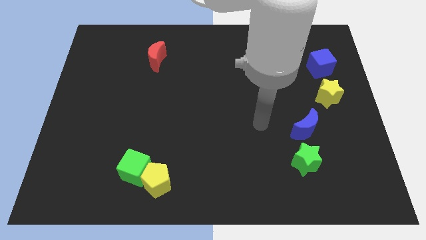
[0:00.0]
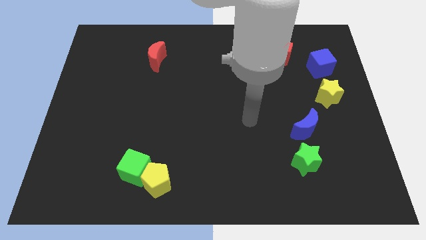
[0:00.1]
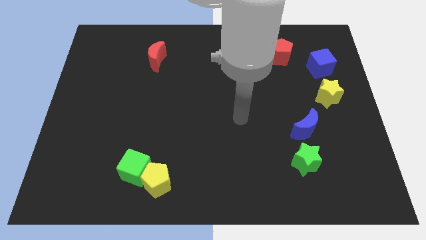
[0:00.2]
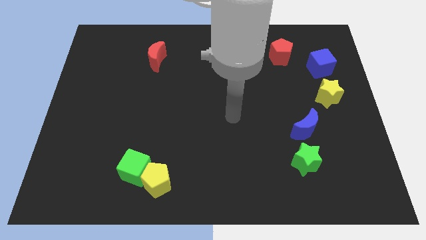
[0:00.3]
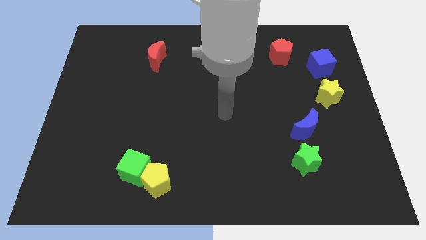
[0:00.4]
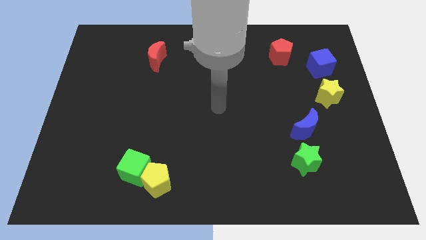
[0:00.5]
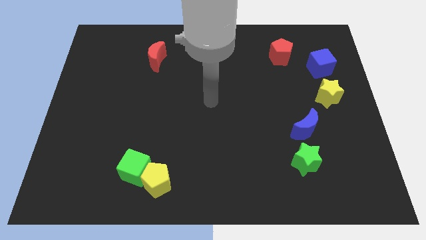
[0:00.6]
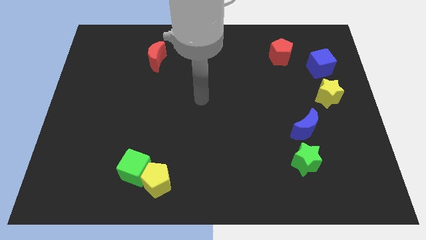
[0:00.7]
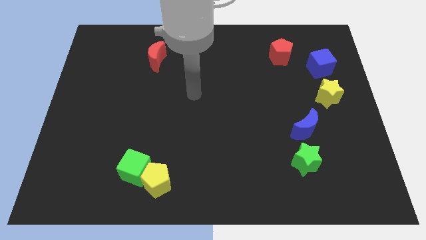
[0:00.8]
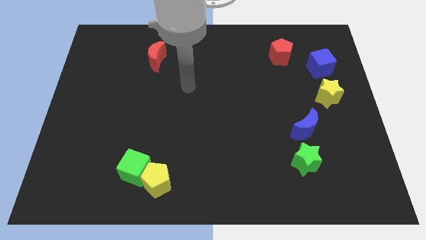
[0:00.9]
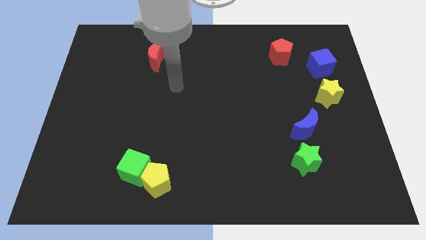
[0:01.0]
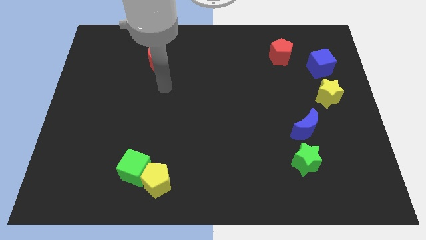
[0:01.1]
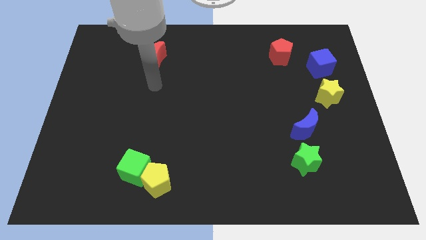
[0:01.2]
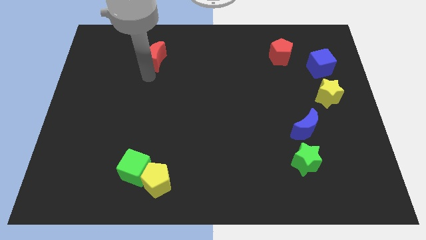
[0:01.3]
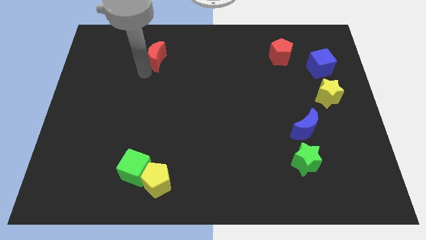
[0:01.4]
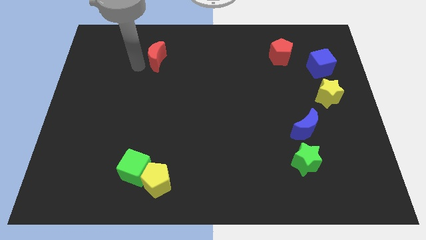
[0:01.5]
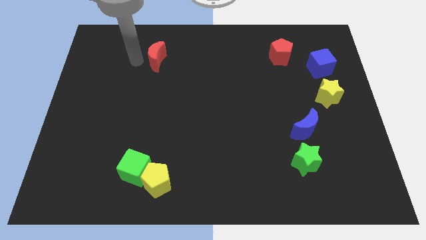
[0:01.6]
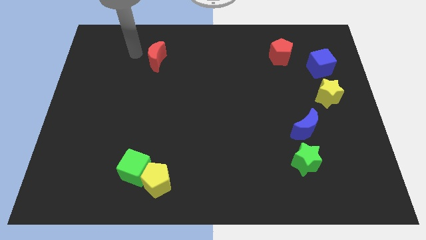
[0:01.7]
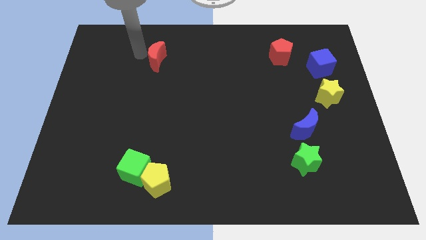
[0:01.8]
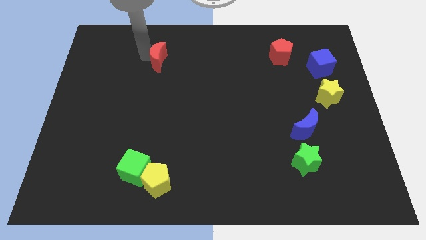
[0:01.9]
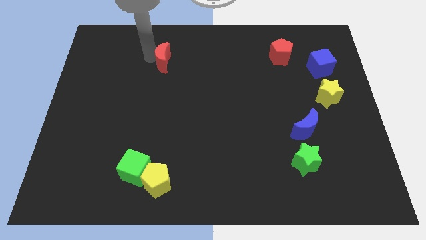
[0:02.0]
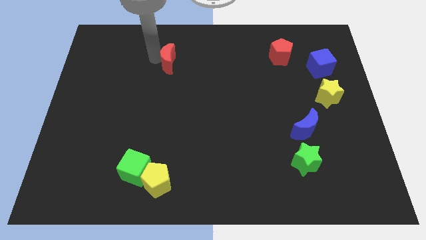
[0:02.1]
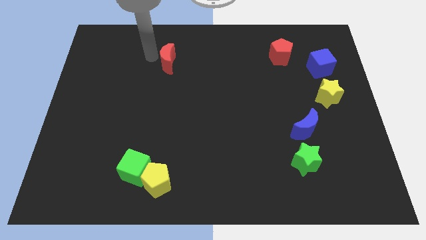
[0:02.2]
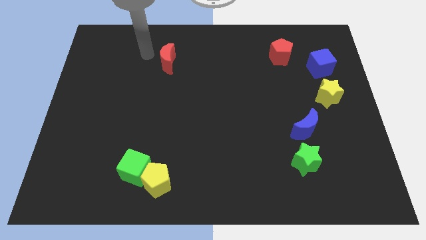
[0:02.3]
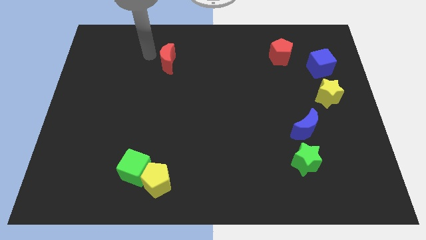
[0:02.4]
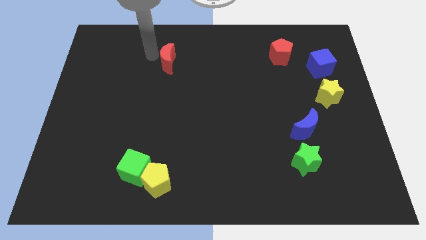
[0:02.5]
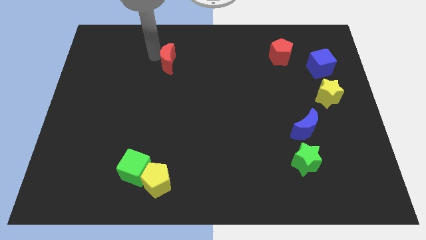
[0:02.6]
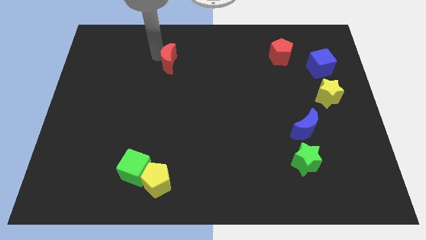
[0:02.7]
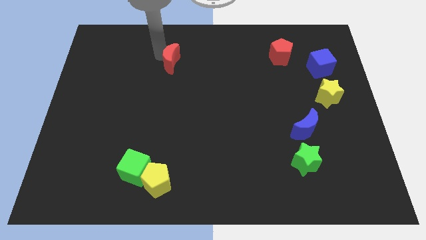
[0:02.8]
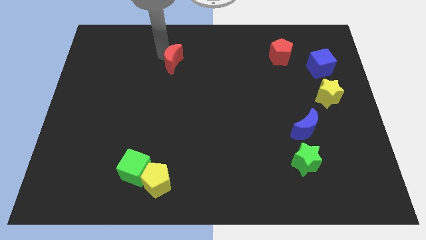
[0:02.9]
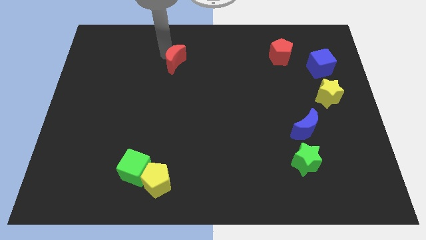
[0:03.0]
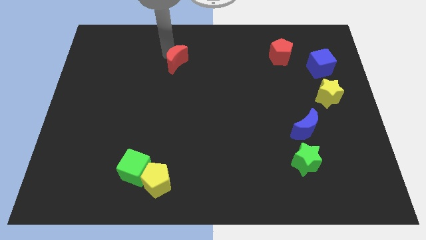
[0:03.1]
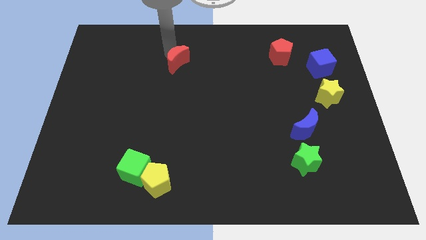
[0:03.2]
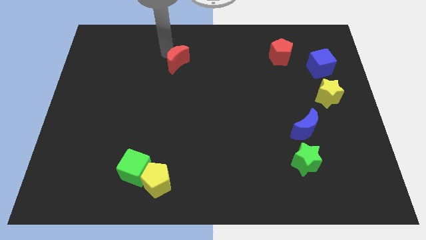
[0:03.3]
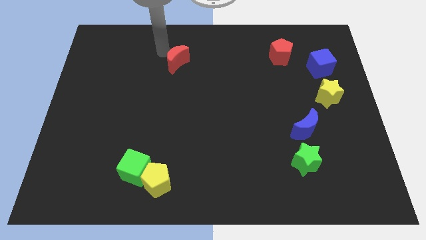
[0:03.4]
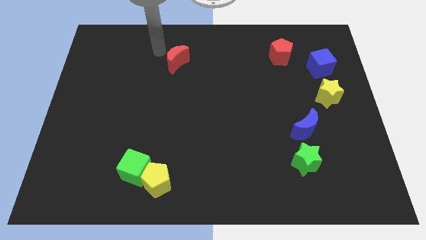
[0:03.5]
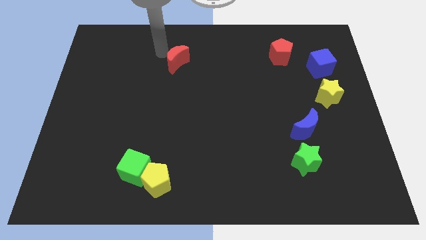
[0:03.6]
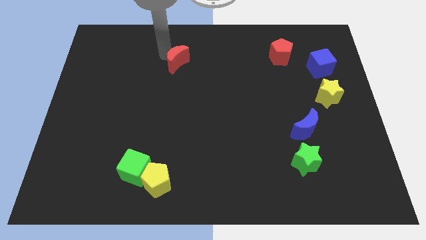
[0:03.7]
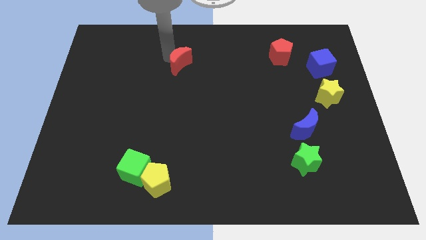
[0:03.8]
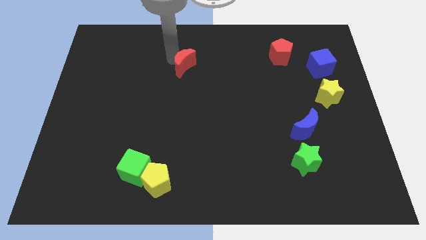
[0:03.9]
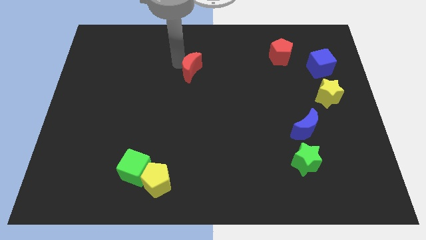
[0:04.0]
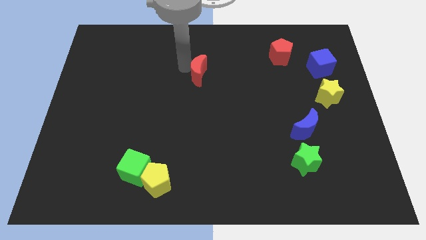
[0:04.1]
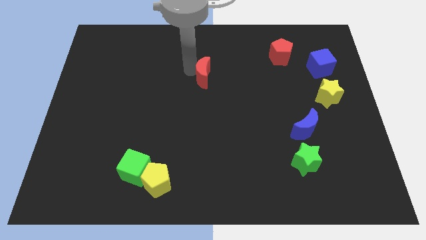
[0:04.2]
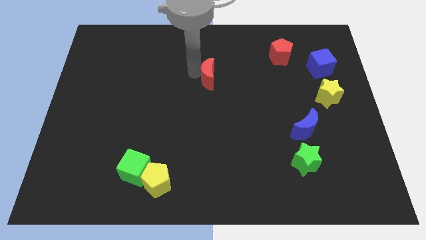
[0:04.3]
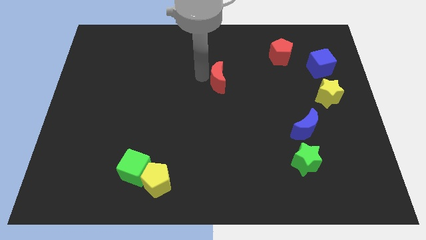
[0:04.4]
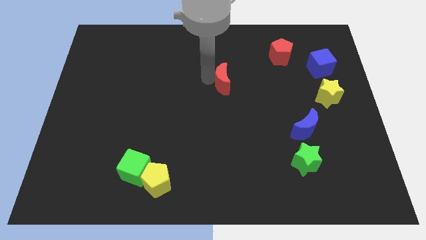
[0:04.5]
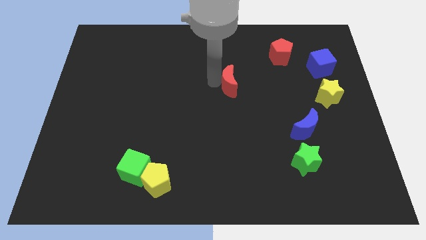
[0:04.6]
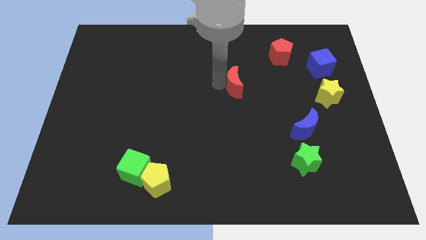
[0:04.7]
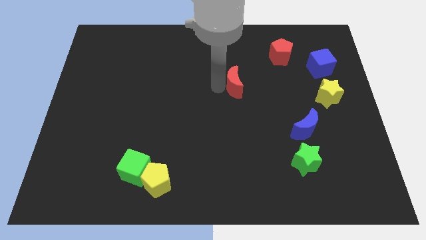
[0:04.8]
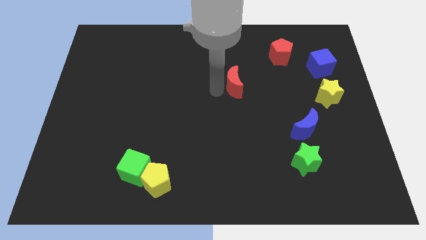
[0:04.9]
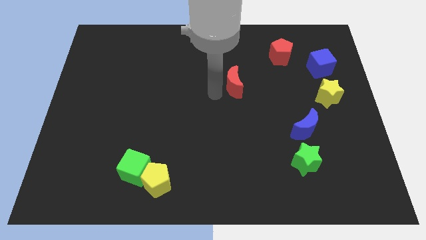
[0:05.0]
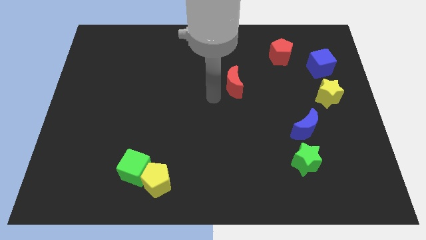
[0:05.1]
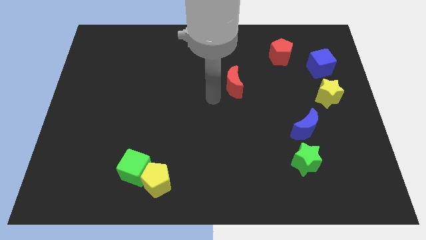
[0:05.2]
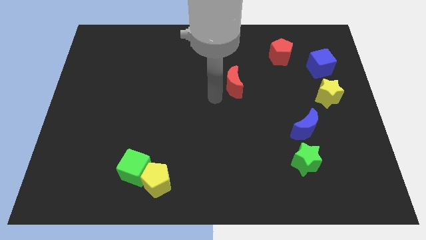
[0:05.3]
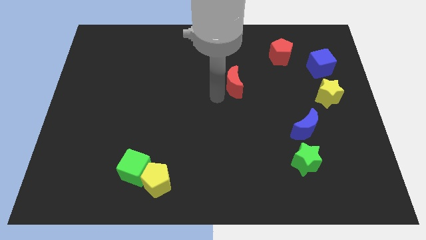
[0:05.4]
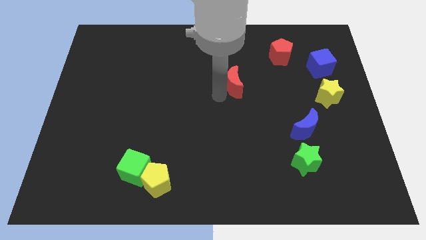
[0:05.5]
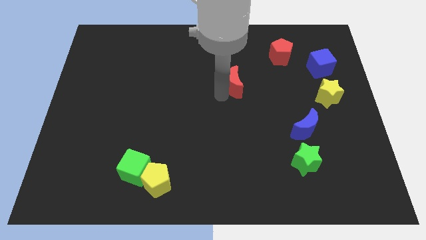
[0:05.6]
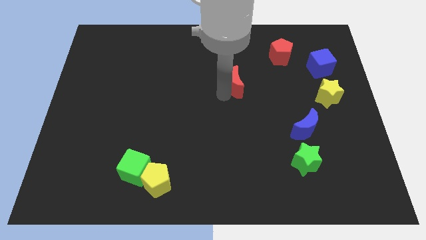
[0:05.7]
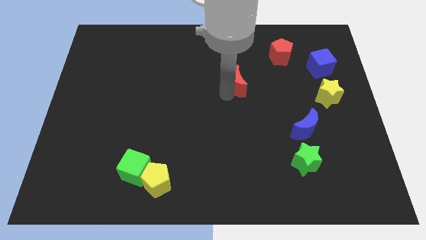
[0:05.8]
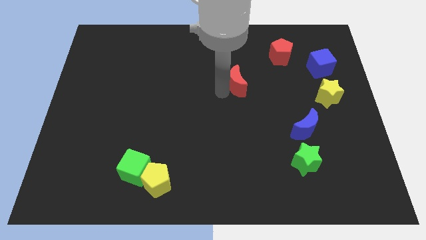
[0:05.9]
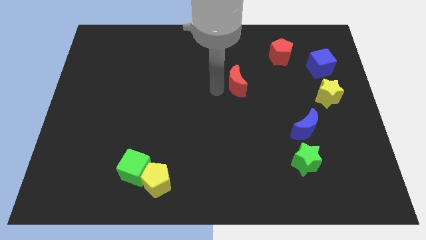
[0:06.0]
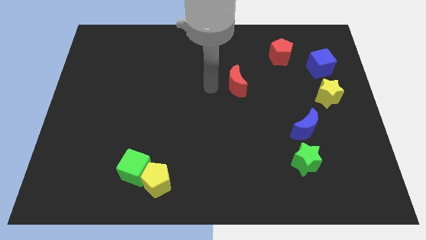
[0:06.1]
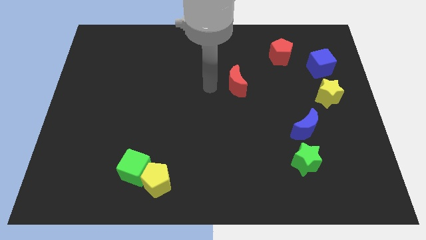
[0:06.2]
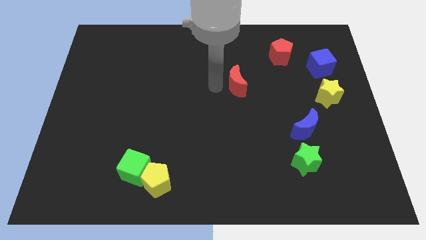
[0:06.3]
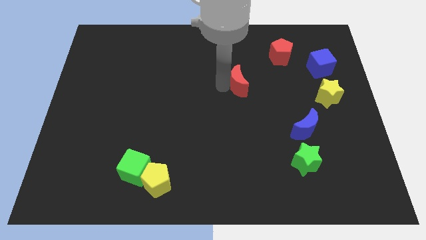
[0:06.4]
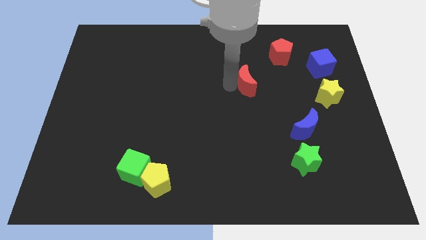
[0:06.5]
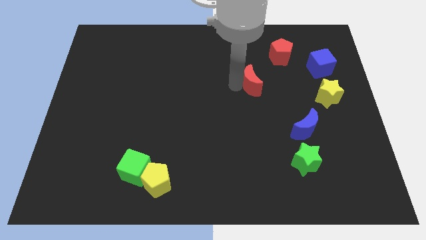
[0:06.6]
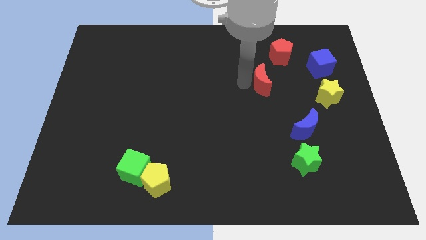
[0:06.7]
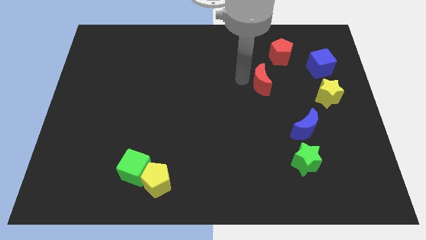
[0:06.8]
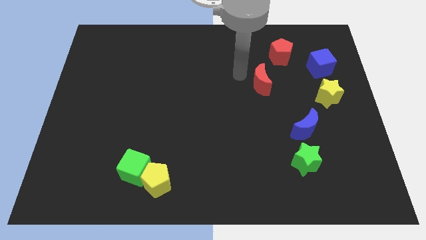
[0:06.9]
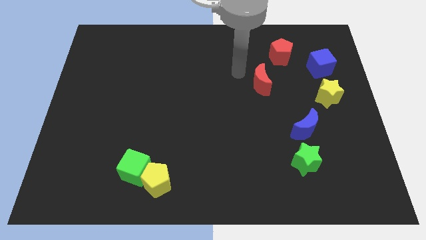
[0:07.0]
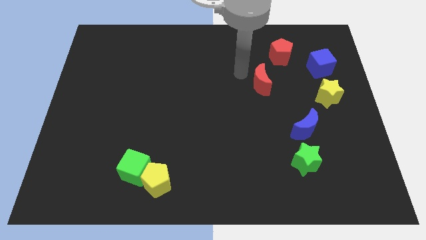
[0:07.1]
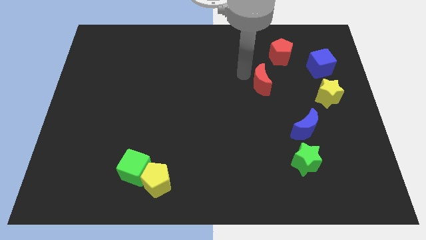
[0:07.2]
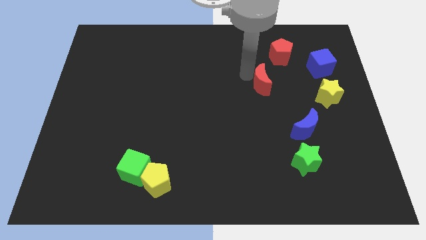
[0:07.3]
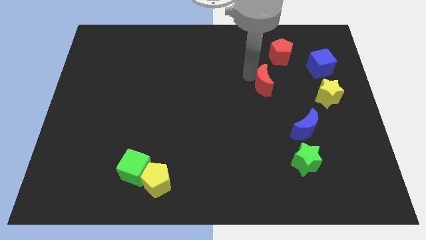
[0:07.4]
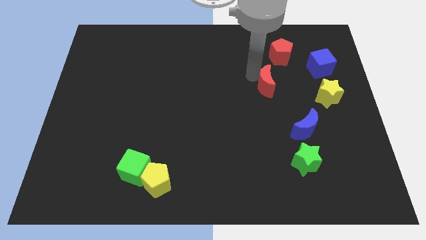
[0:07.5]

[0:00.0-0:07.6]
slide the red moon to the left of the yellow star
